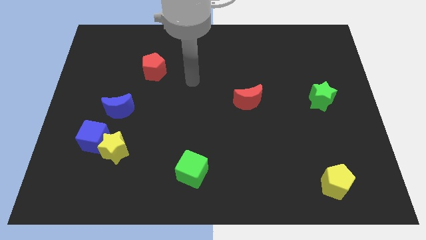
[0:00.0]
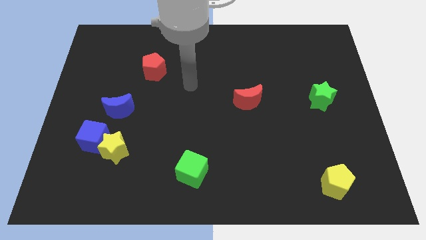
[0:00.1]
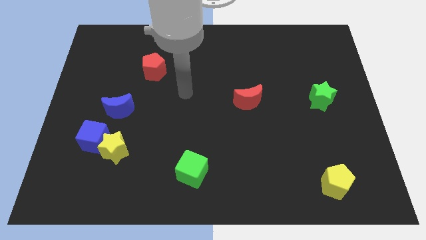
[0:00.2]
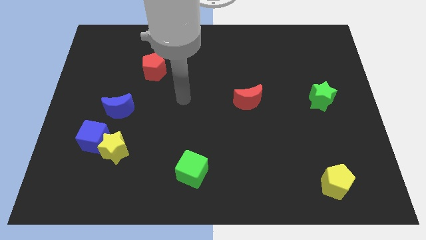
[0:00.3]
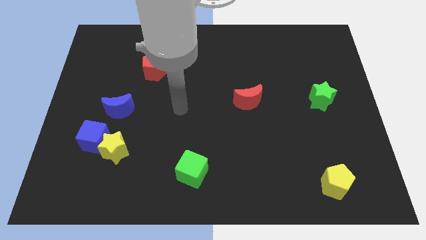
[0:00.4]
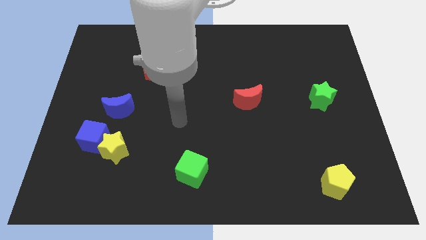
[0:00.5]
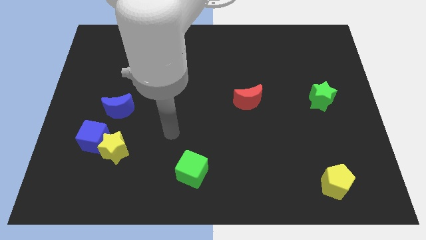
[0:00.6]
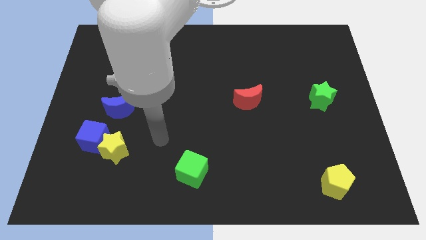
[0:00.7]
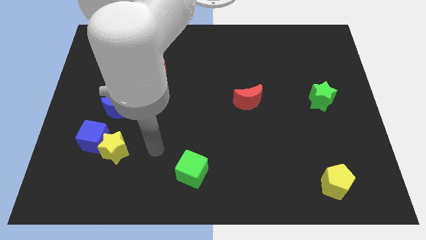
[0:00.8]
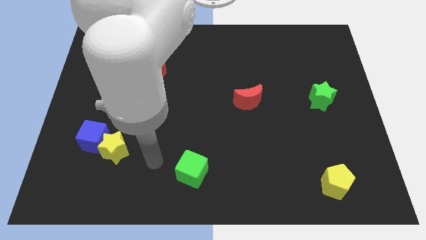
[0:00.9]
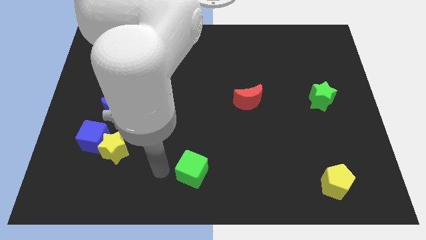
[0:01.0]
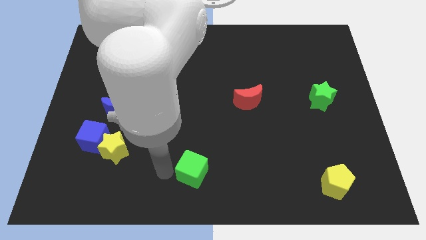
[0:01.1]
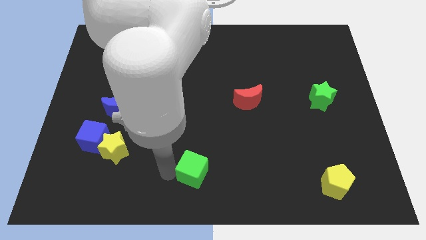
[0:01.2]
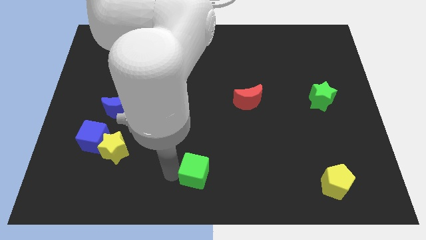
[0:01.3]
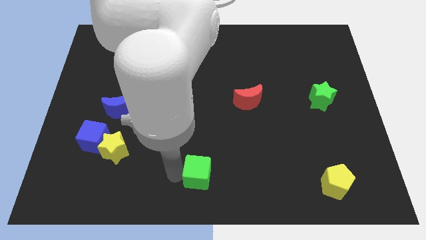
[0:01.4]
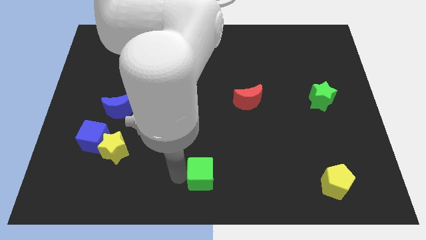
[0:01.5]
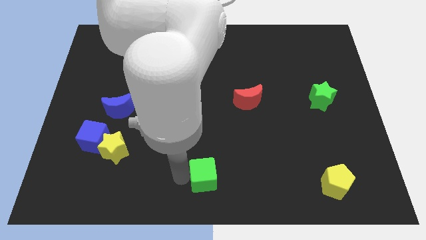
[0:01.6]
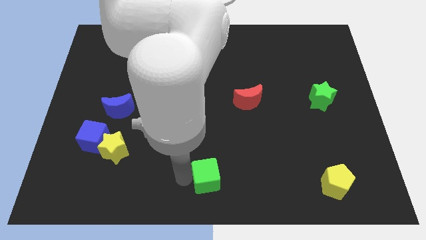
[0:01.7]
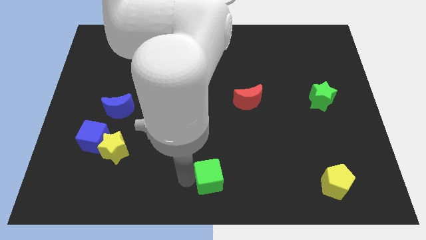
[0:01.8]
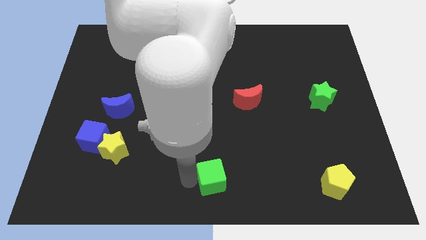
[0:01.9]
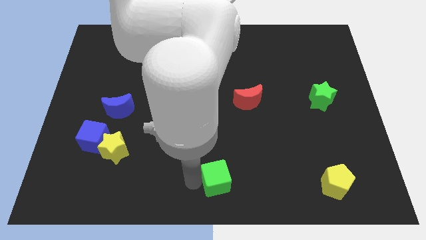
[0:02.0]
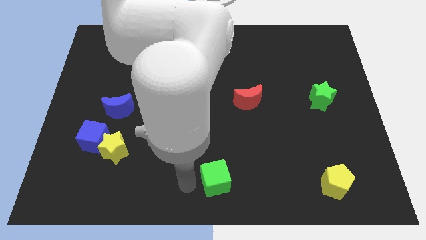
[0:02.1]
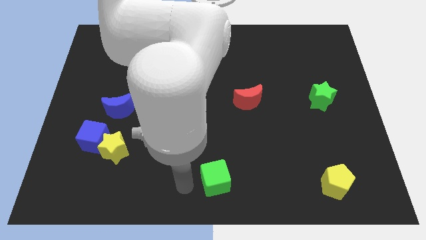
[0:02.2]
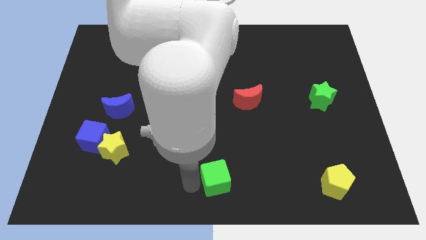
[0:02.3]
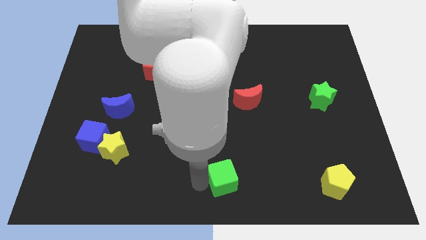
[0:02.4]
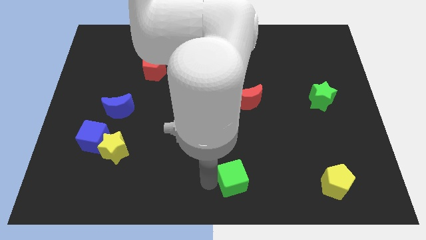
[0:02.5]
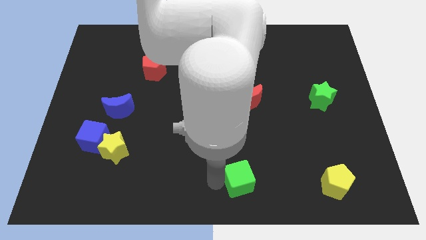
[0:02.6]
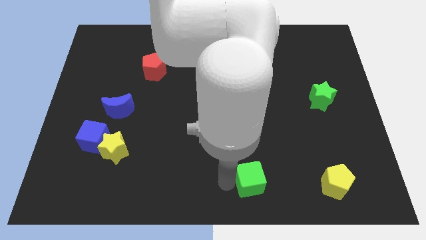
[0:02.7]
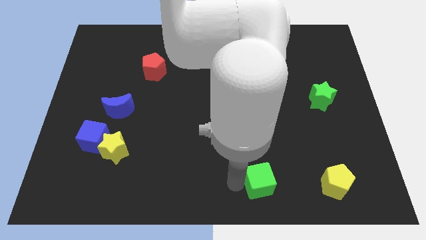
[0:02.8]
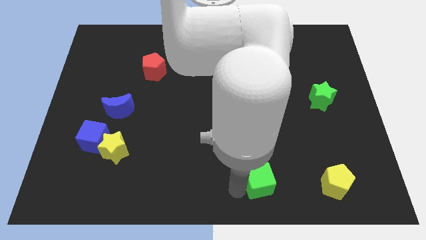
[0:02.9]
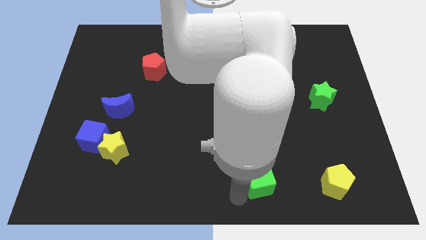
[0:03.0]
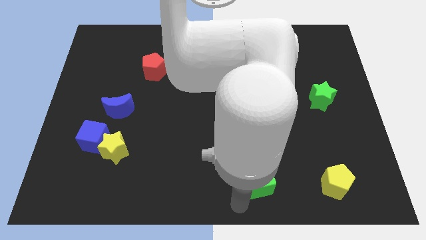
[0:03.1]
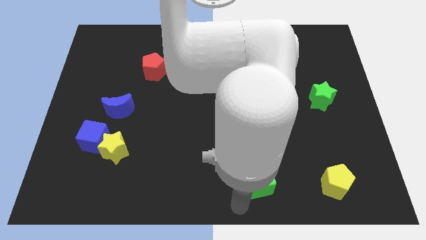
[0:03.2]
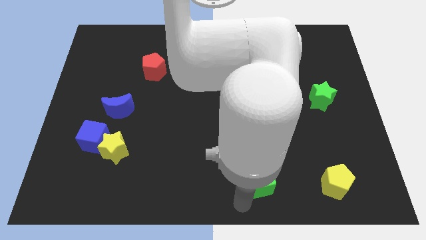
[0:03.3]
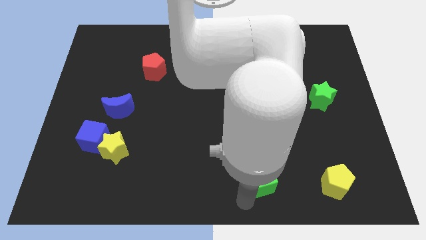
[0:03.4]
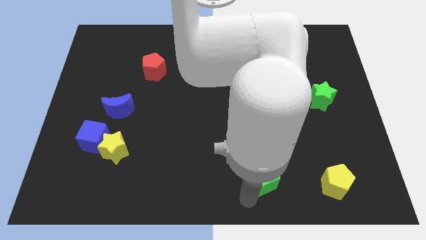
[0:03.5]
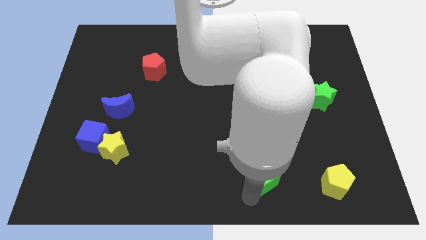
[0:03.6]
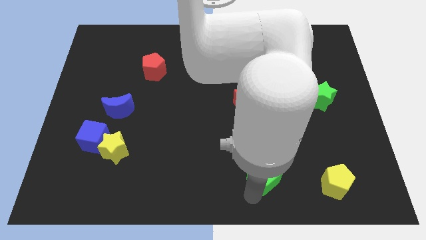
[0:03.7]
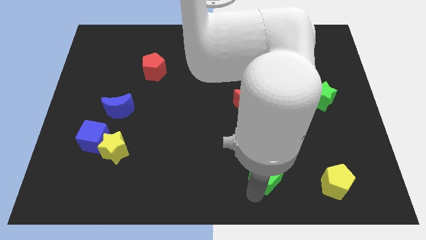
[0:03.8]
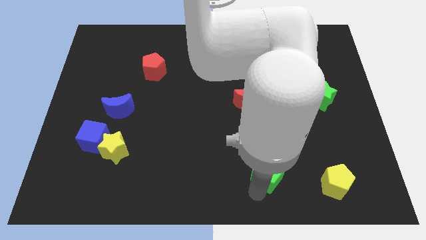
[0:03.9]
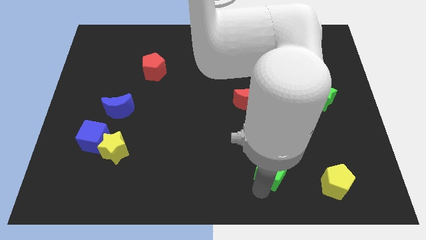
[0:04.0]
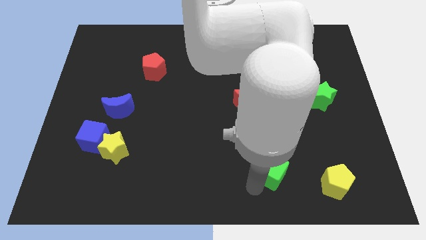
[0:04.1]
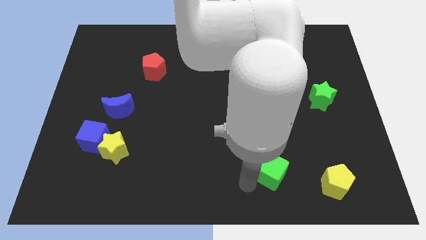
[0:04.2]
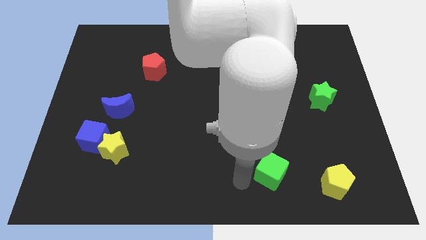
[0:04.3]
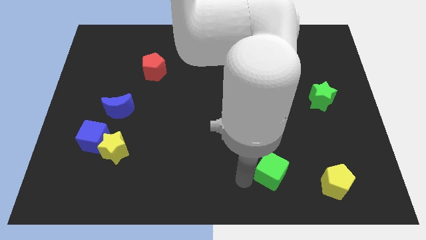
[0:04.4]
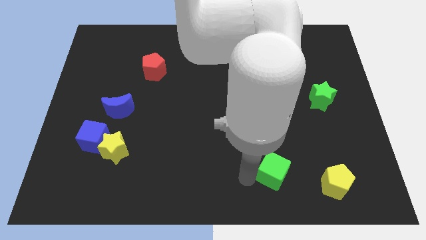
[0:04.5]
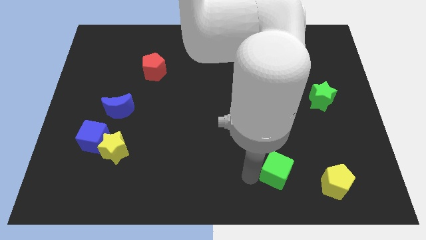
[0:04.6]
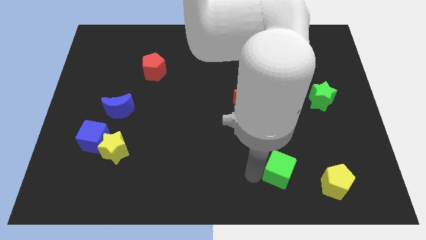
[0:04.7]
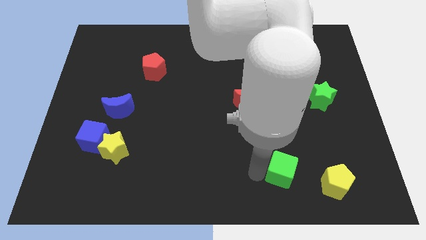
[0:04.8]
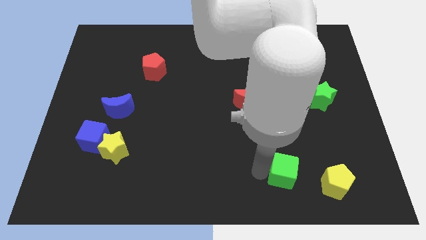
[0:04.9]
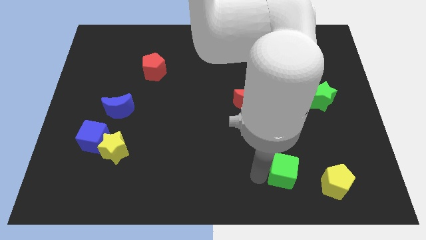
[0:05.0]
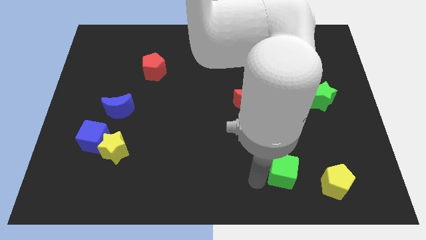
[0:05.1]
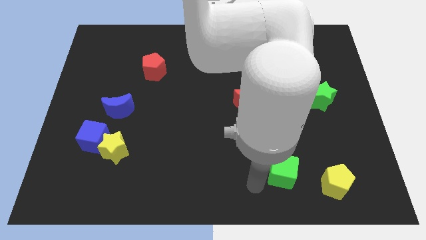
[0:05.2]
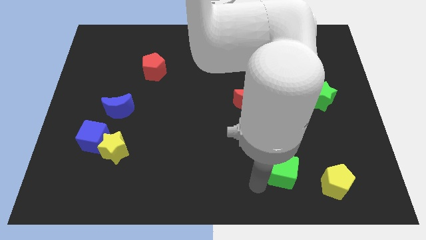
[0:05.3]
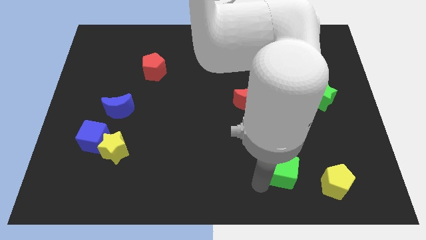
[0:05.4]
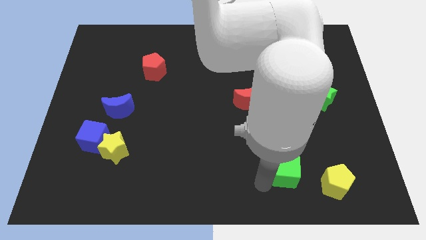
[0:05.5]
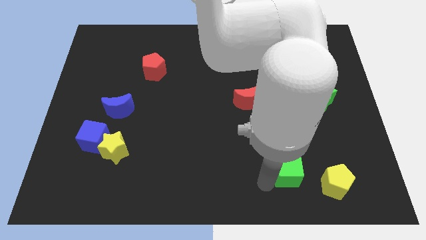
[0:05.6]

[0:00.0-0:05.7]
slide the green cube right

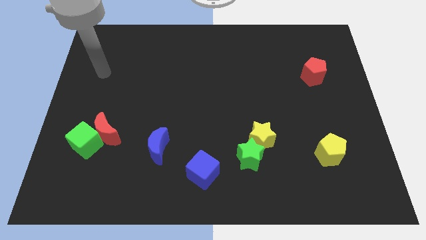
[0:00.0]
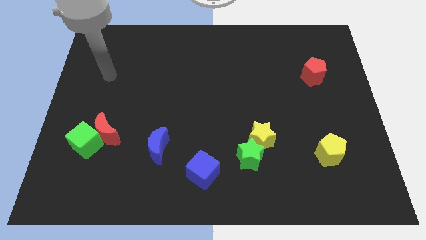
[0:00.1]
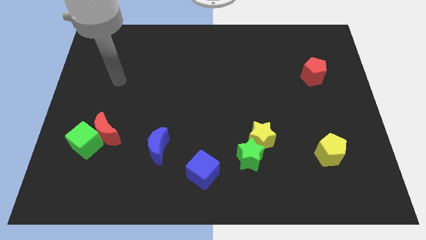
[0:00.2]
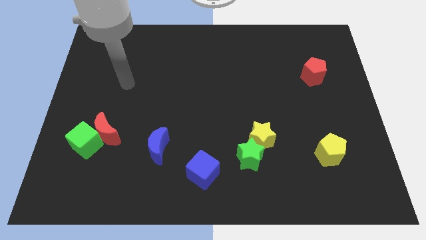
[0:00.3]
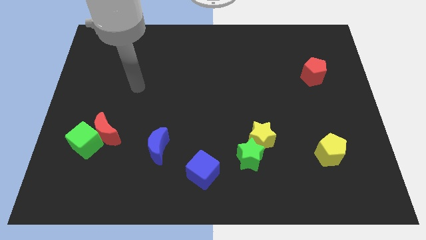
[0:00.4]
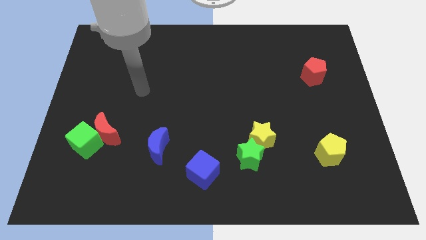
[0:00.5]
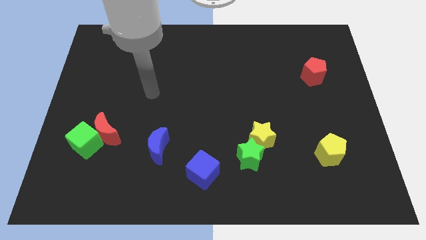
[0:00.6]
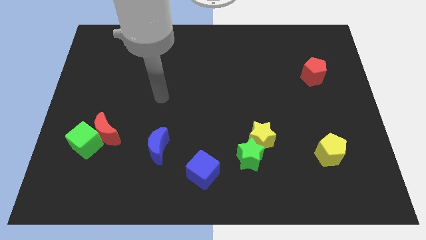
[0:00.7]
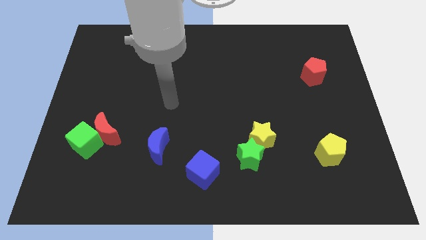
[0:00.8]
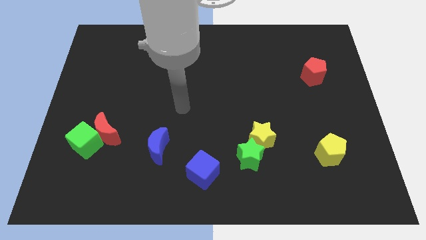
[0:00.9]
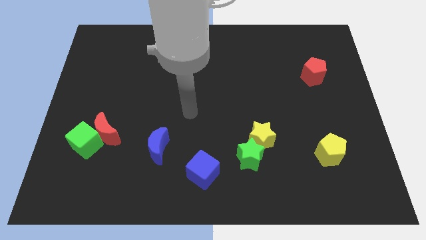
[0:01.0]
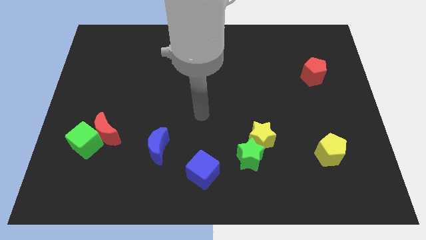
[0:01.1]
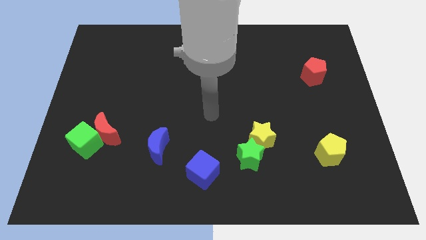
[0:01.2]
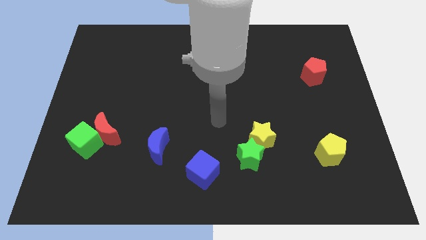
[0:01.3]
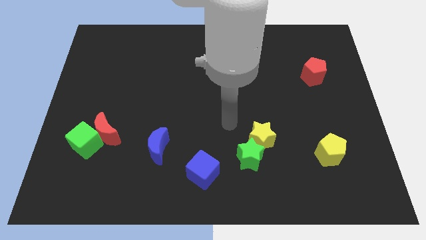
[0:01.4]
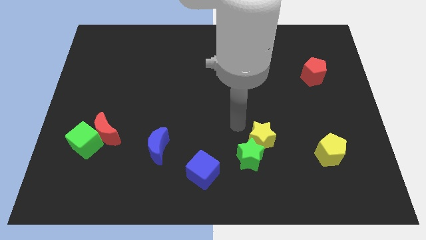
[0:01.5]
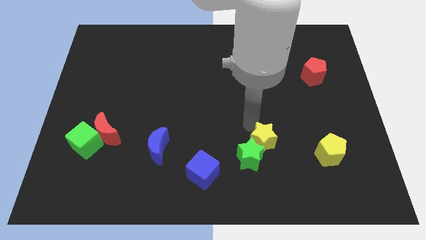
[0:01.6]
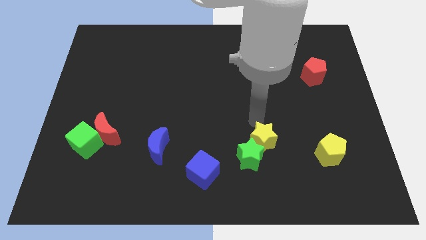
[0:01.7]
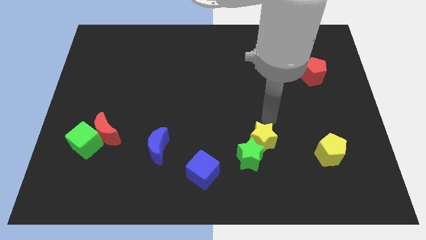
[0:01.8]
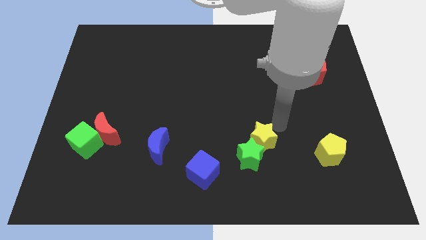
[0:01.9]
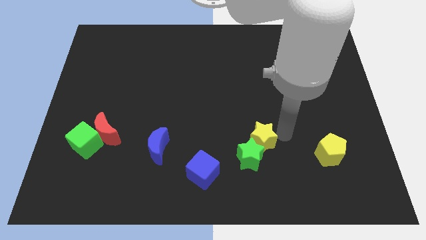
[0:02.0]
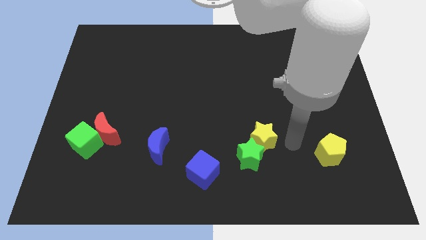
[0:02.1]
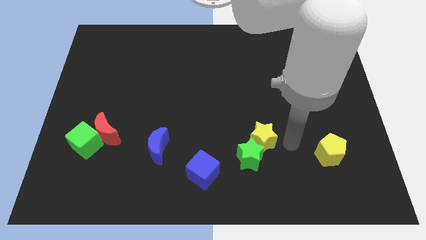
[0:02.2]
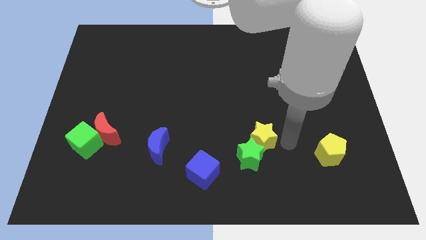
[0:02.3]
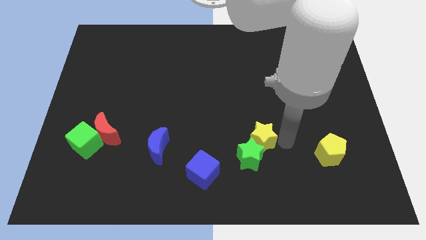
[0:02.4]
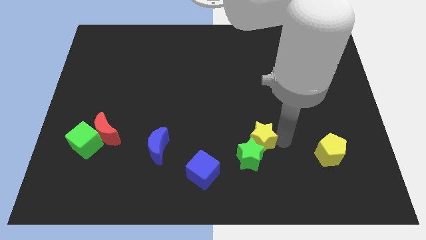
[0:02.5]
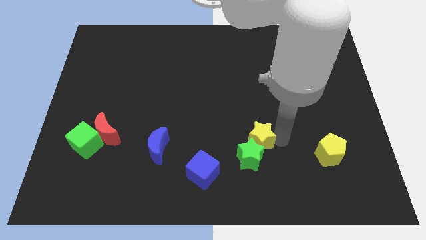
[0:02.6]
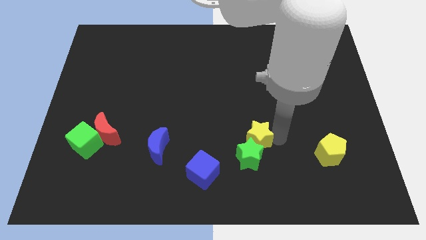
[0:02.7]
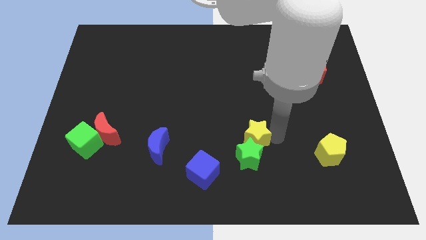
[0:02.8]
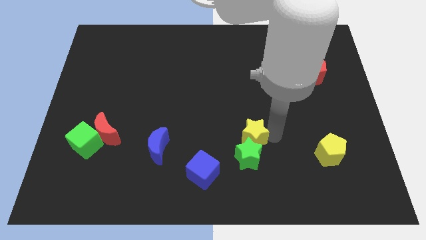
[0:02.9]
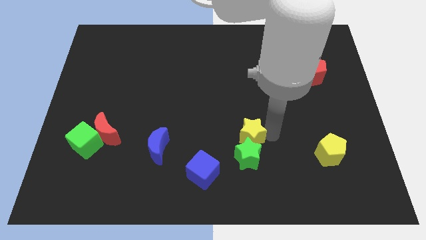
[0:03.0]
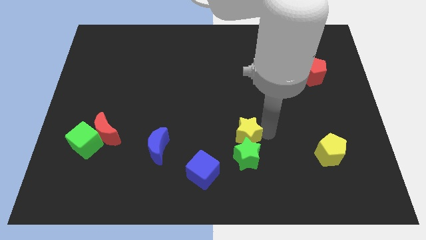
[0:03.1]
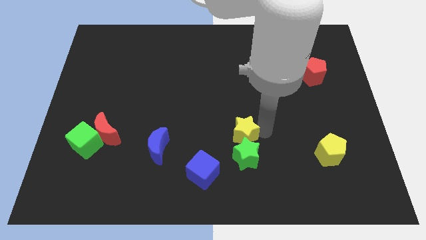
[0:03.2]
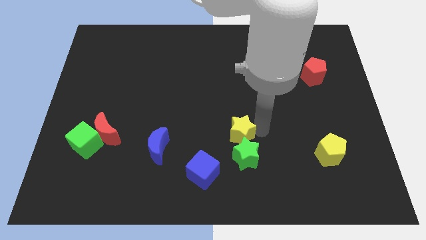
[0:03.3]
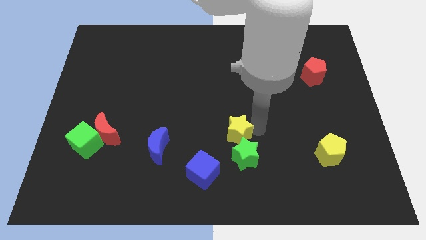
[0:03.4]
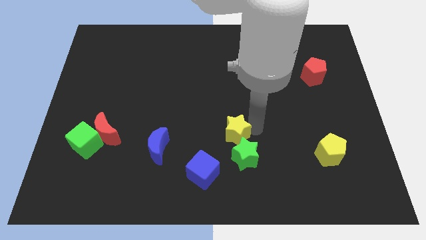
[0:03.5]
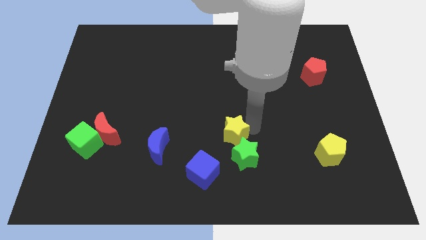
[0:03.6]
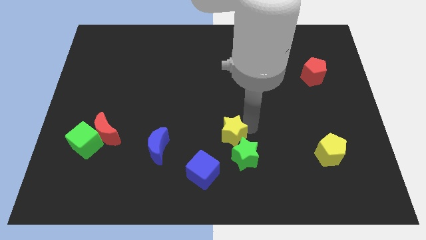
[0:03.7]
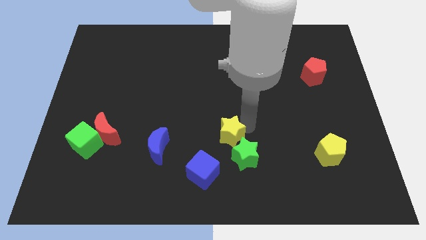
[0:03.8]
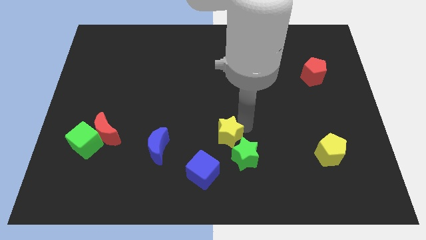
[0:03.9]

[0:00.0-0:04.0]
slide the yellow star left a little bit
